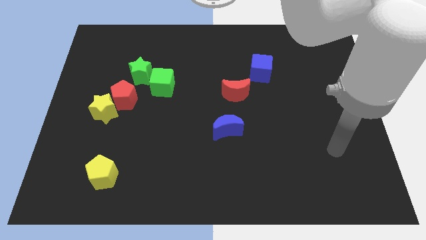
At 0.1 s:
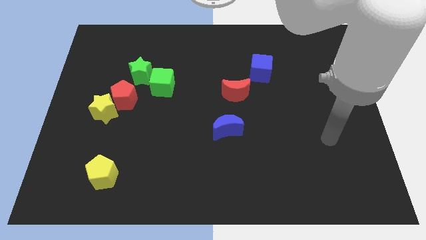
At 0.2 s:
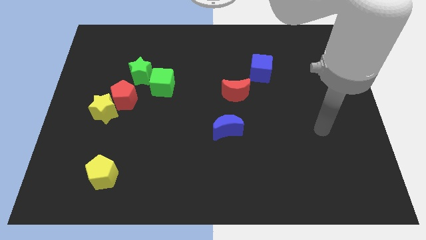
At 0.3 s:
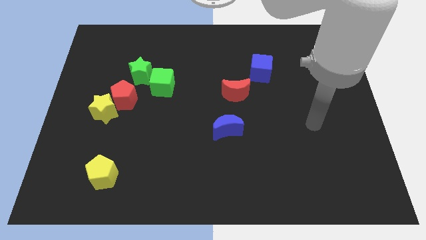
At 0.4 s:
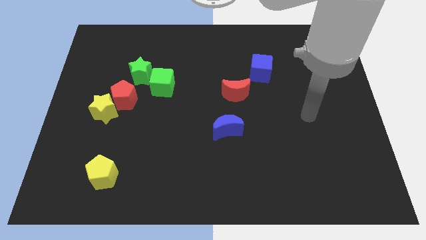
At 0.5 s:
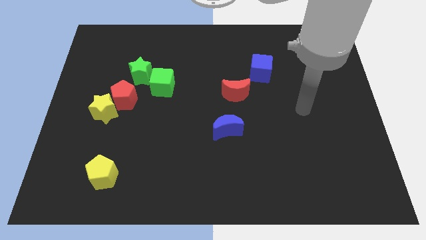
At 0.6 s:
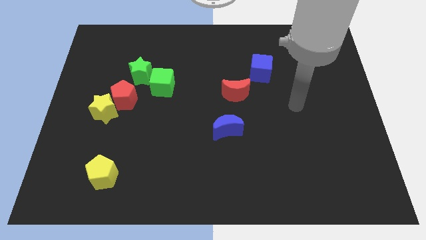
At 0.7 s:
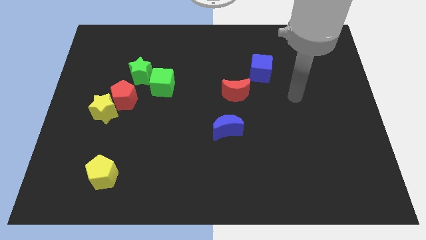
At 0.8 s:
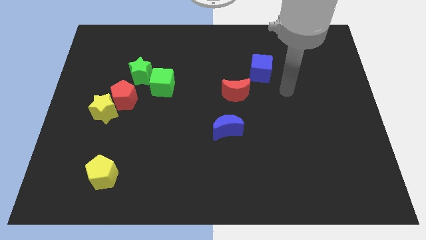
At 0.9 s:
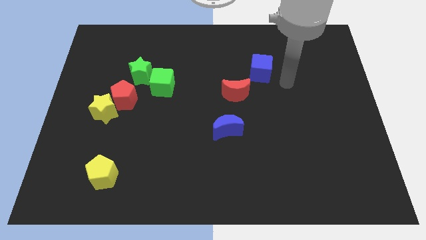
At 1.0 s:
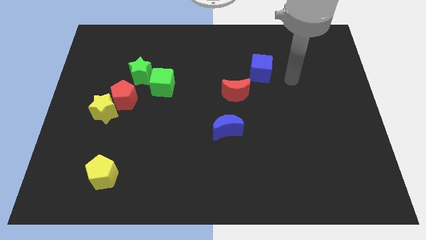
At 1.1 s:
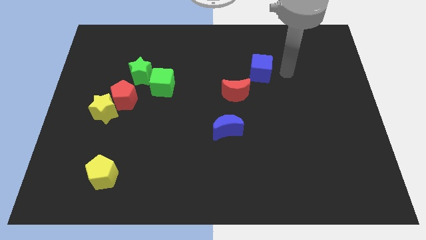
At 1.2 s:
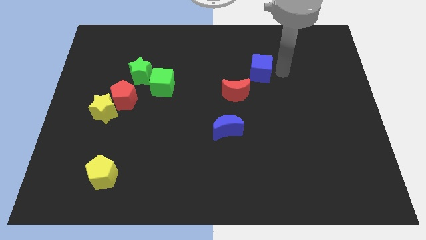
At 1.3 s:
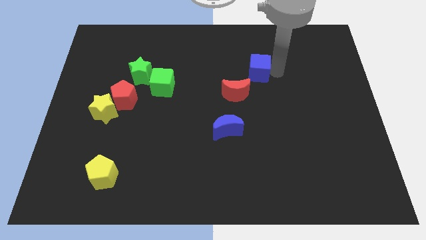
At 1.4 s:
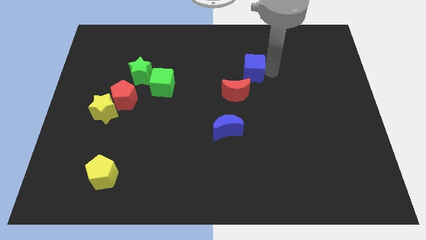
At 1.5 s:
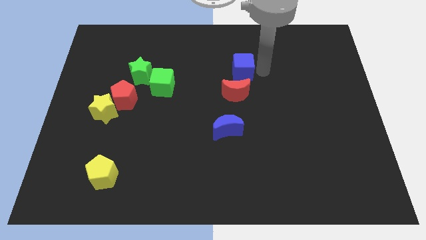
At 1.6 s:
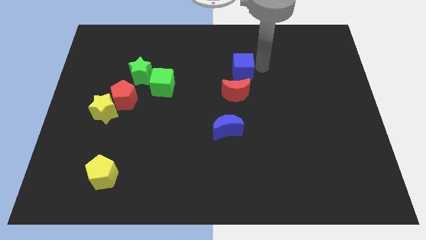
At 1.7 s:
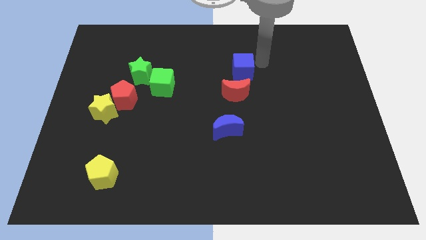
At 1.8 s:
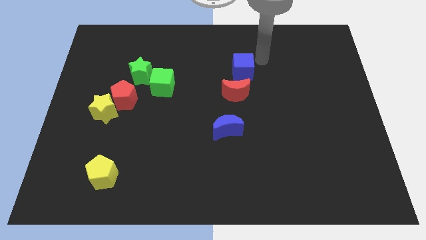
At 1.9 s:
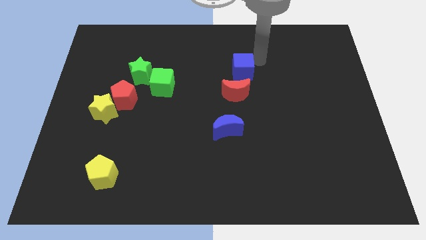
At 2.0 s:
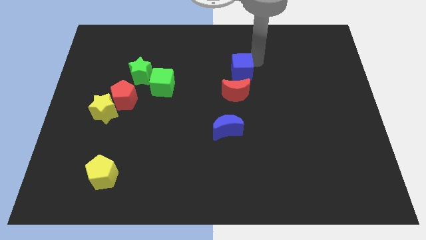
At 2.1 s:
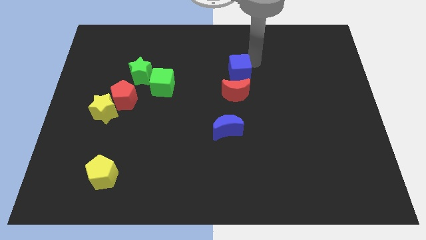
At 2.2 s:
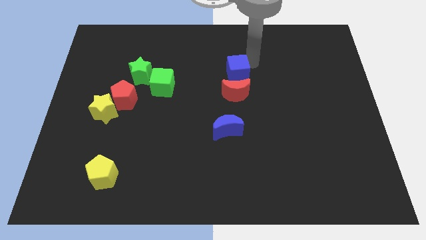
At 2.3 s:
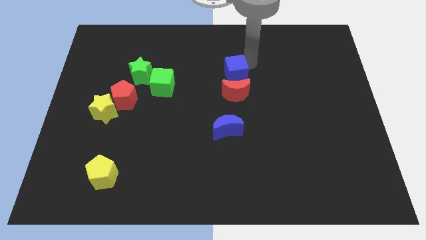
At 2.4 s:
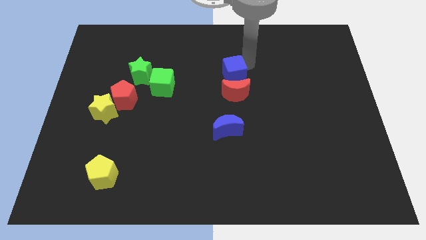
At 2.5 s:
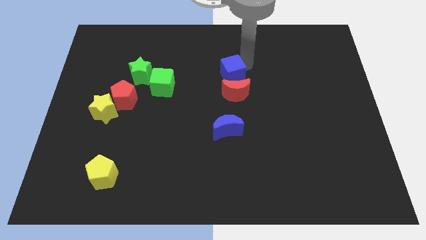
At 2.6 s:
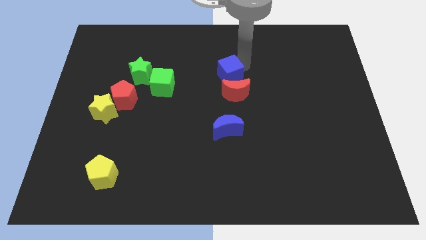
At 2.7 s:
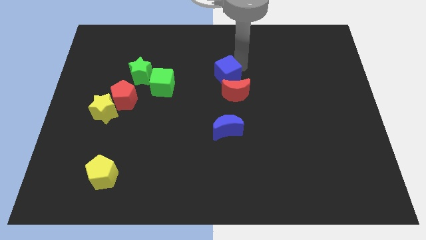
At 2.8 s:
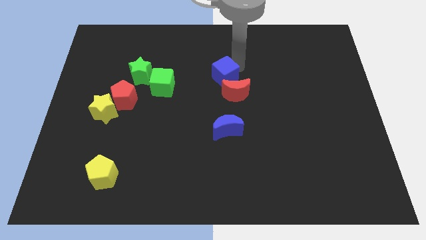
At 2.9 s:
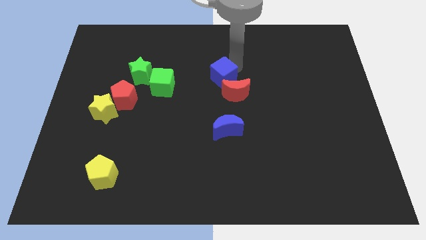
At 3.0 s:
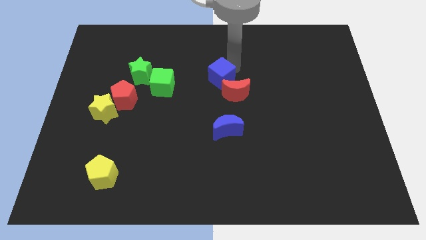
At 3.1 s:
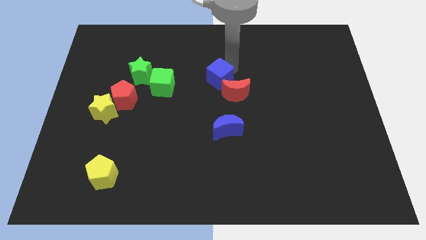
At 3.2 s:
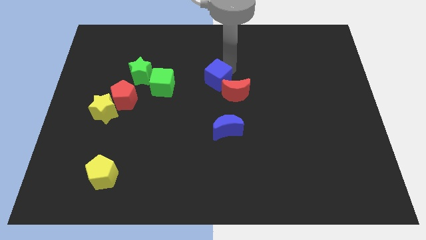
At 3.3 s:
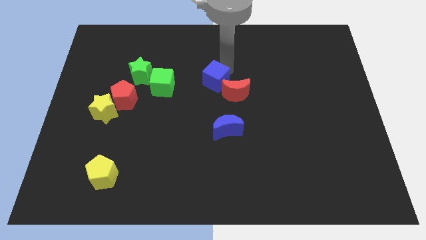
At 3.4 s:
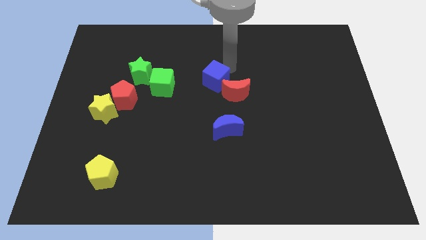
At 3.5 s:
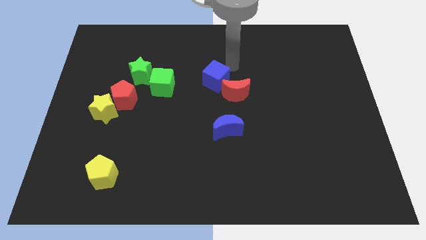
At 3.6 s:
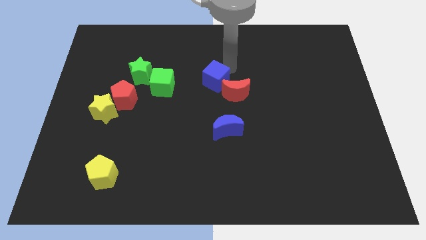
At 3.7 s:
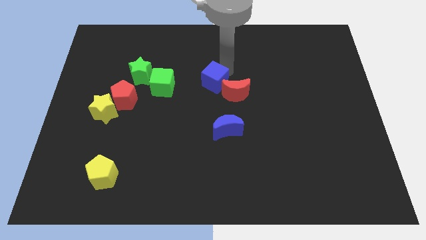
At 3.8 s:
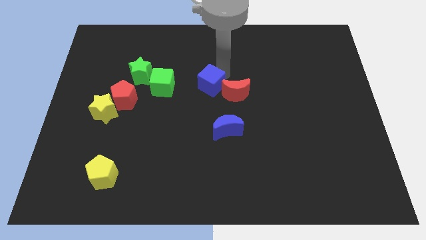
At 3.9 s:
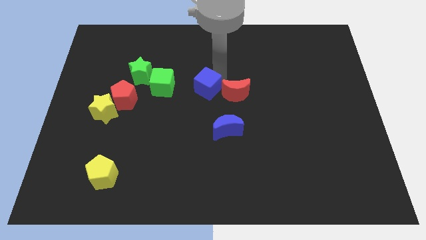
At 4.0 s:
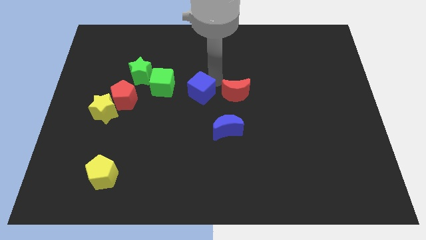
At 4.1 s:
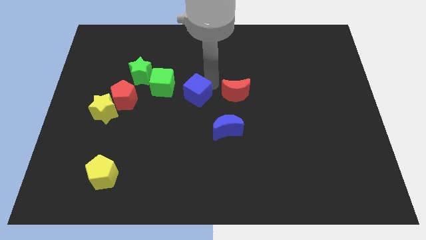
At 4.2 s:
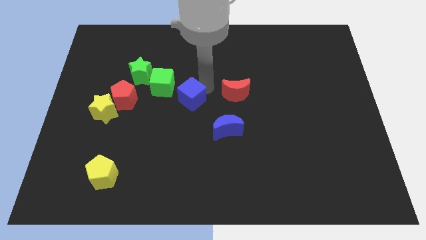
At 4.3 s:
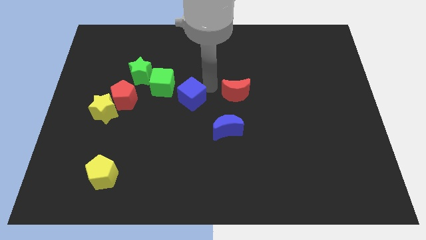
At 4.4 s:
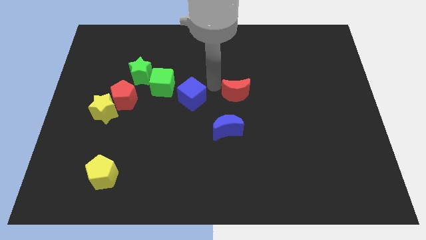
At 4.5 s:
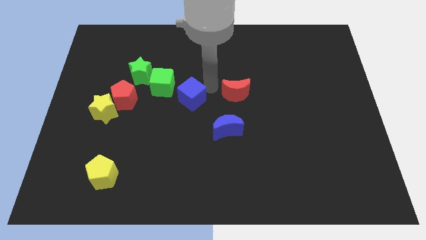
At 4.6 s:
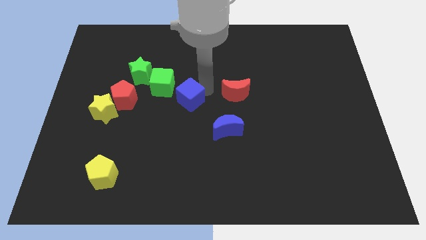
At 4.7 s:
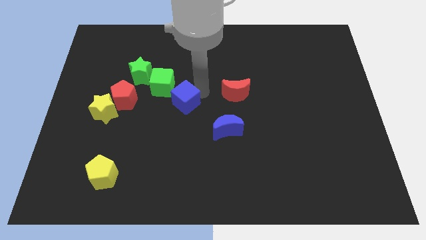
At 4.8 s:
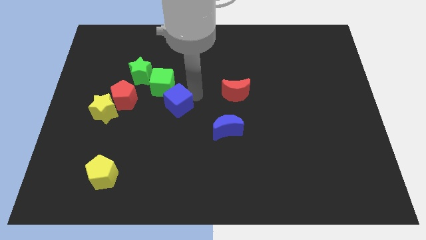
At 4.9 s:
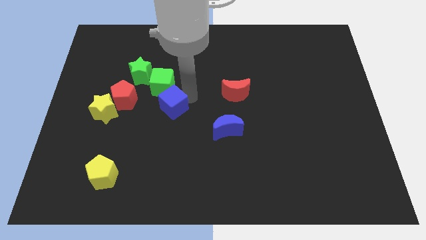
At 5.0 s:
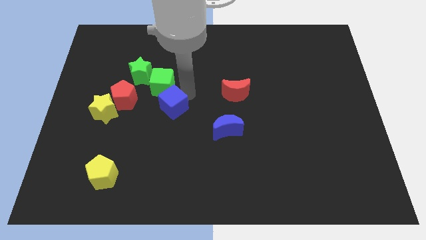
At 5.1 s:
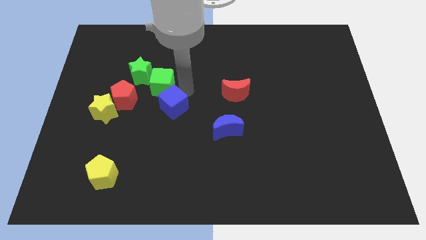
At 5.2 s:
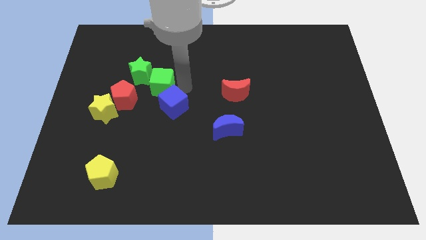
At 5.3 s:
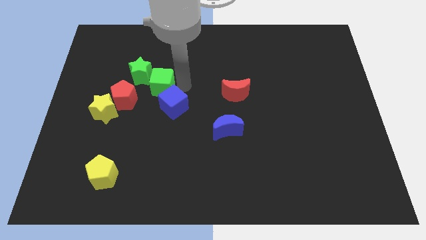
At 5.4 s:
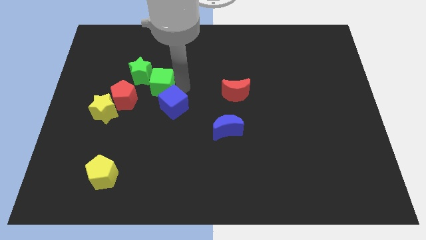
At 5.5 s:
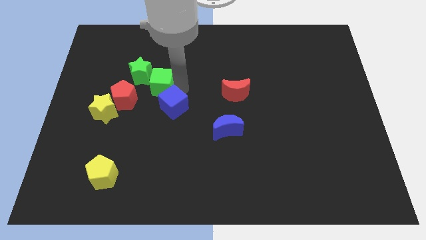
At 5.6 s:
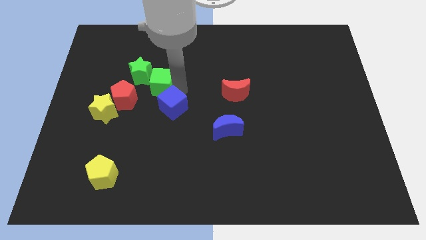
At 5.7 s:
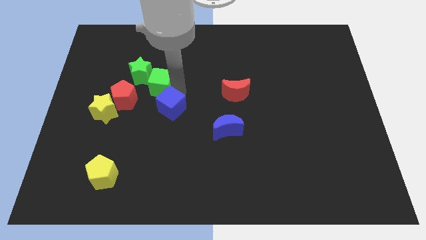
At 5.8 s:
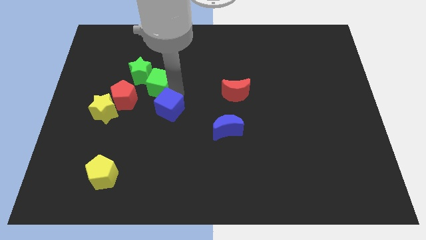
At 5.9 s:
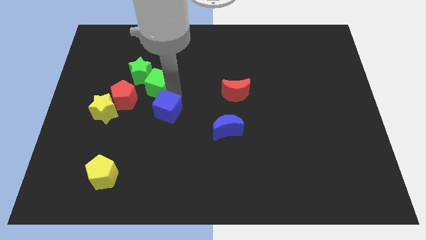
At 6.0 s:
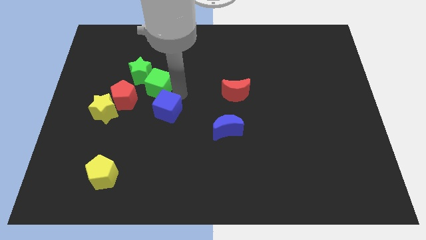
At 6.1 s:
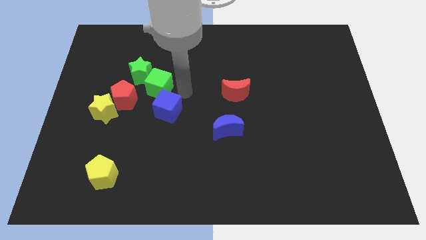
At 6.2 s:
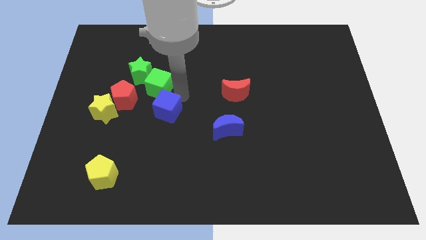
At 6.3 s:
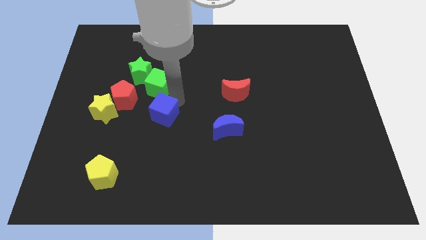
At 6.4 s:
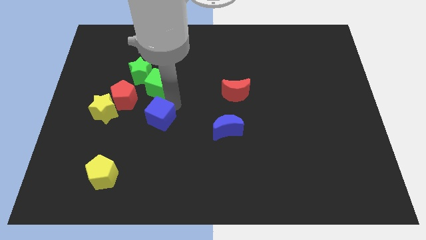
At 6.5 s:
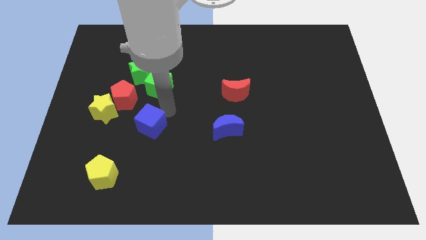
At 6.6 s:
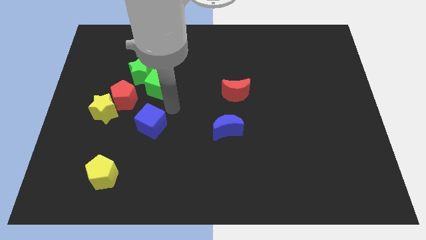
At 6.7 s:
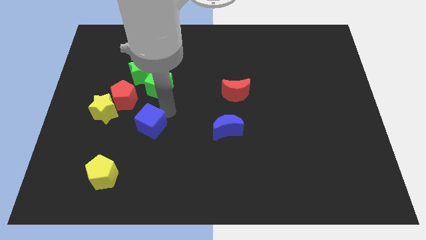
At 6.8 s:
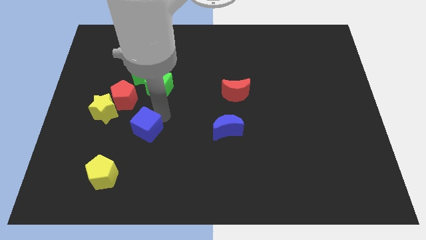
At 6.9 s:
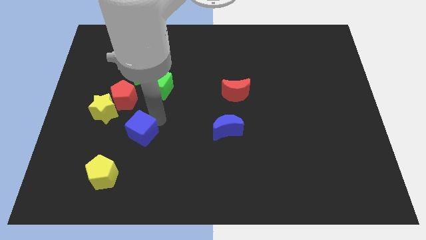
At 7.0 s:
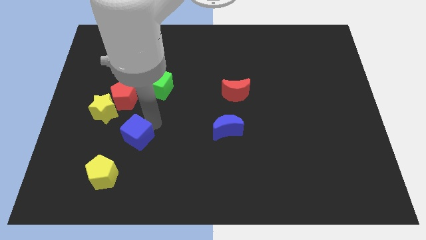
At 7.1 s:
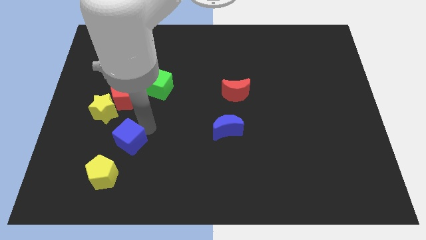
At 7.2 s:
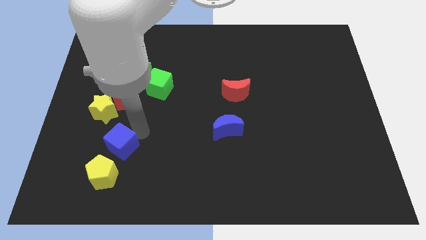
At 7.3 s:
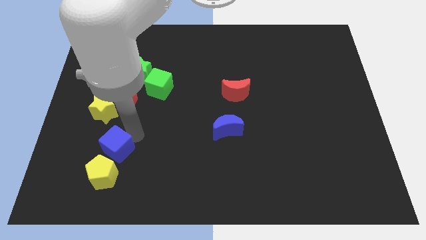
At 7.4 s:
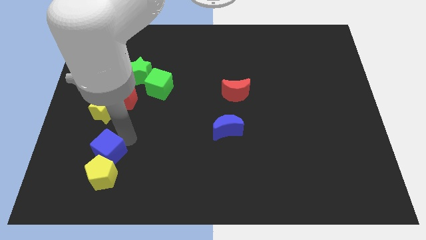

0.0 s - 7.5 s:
slide the blue cube close to the yellow pentagon

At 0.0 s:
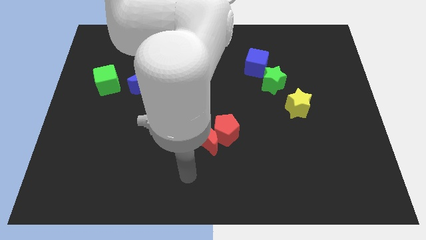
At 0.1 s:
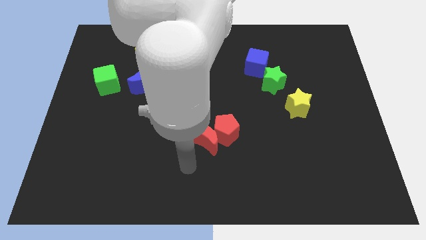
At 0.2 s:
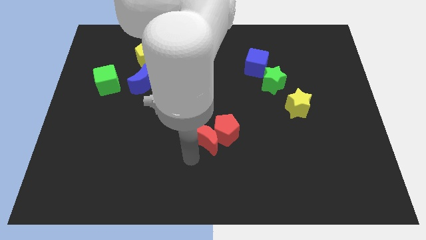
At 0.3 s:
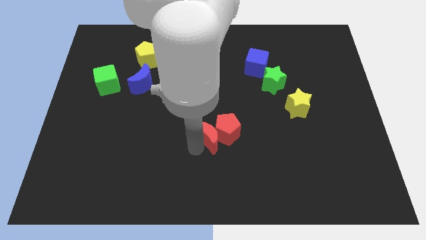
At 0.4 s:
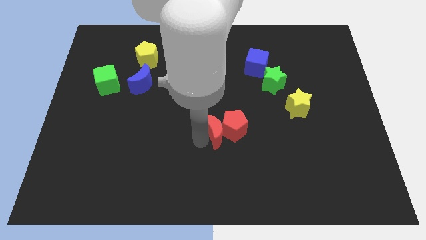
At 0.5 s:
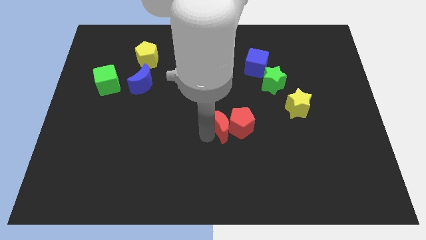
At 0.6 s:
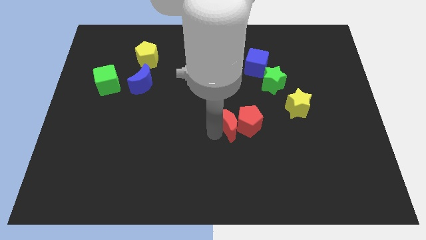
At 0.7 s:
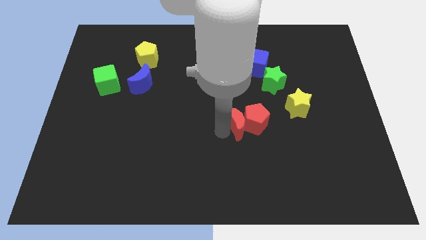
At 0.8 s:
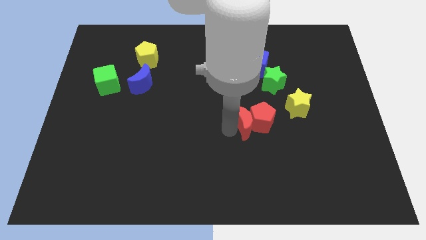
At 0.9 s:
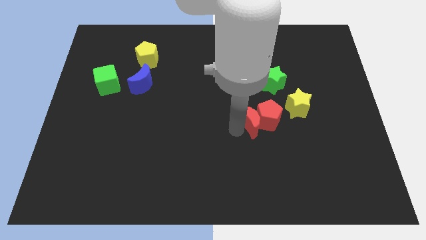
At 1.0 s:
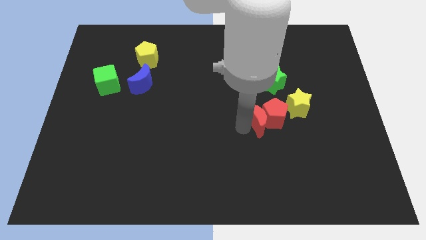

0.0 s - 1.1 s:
push the red pentagon next to the yellow star
